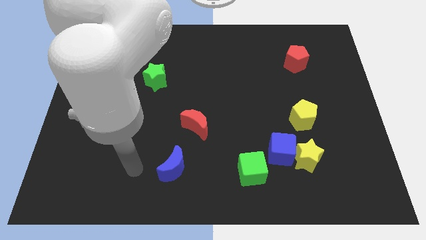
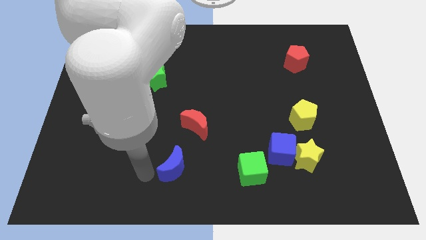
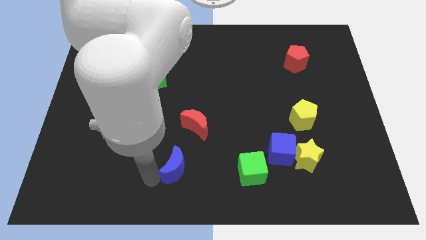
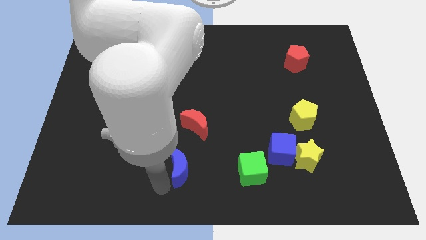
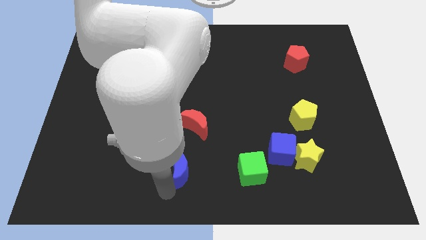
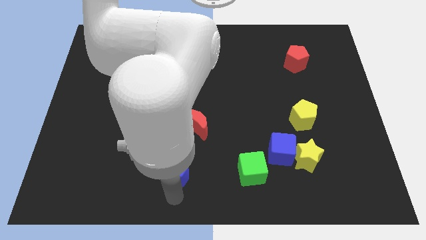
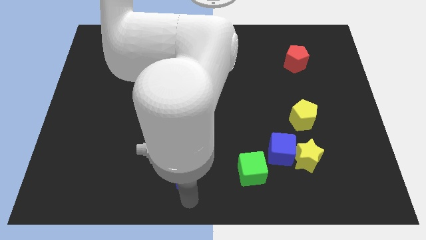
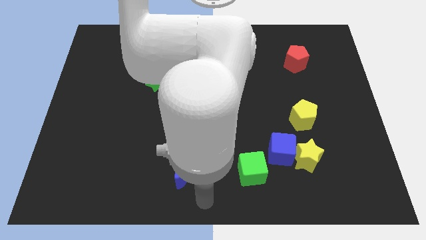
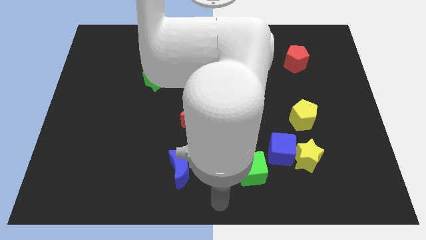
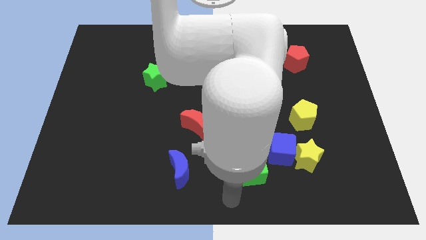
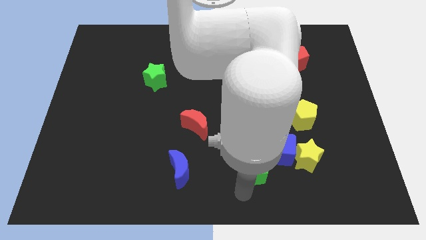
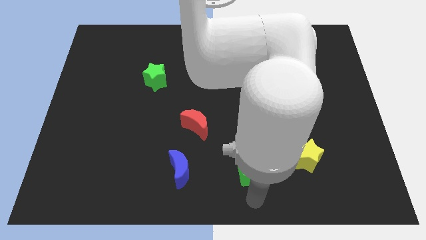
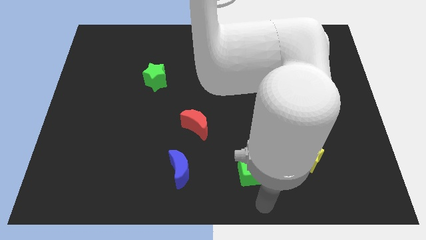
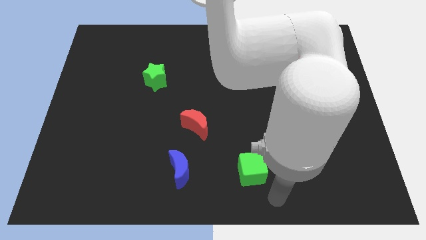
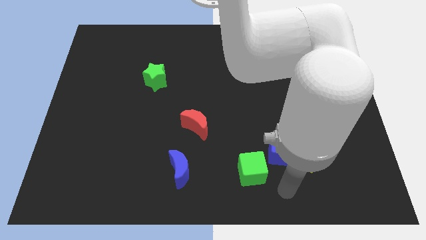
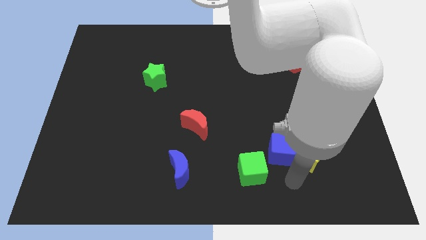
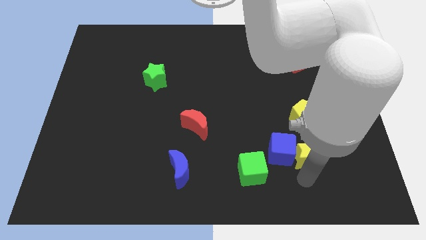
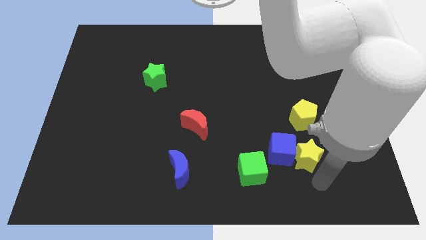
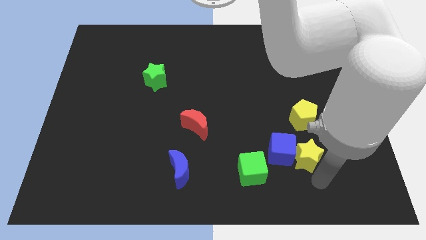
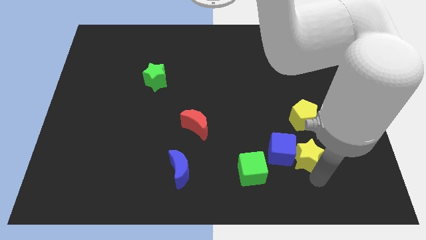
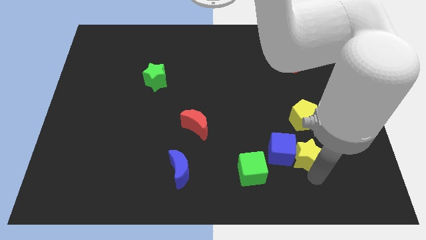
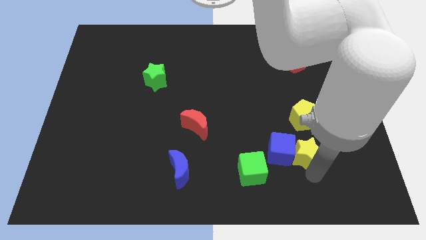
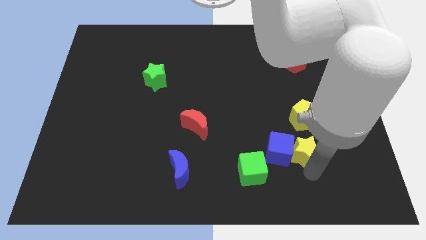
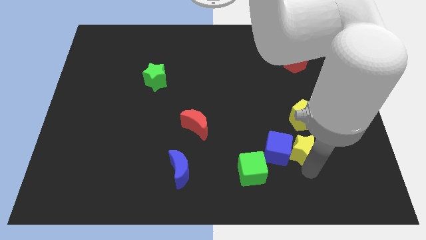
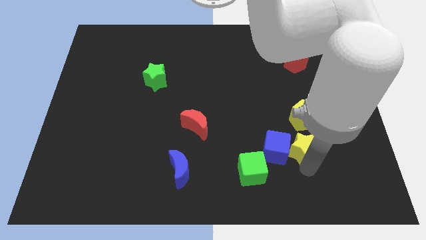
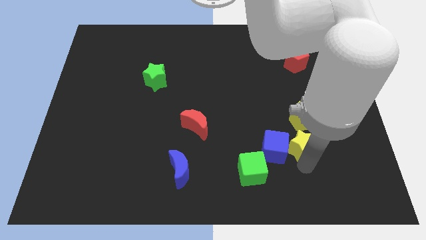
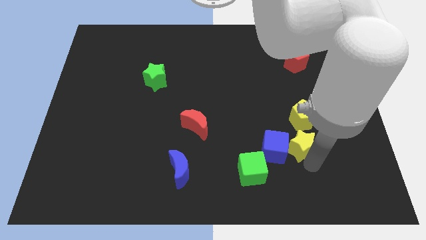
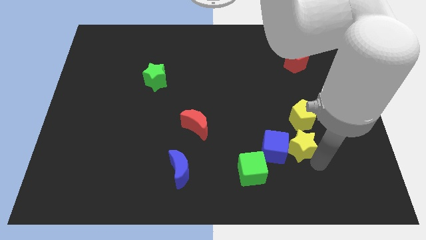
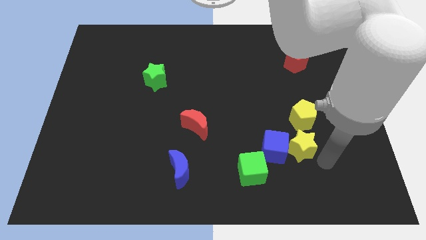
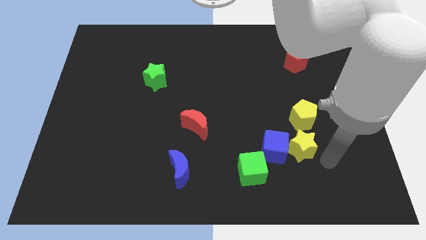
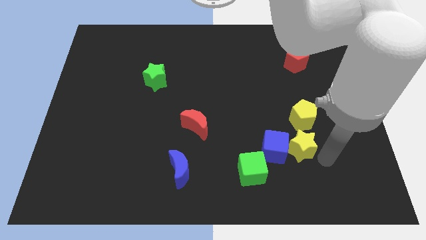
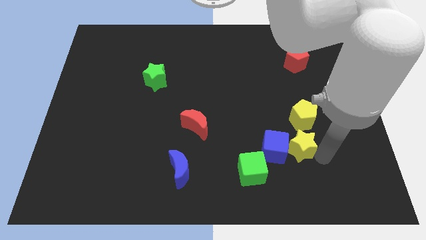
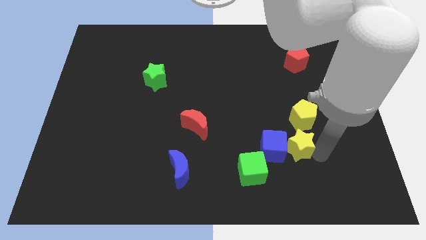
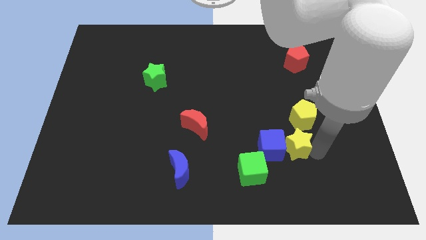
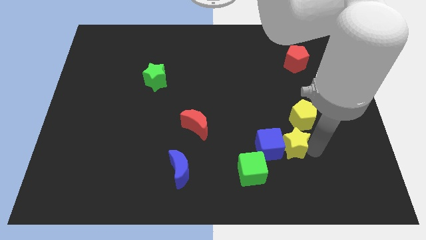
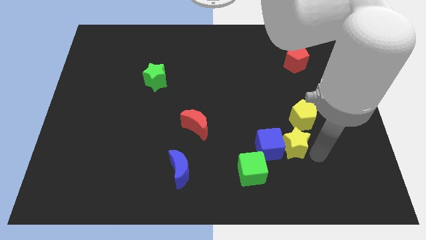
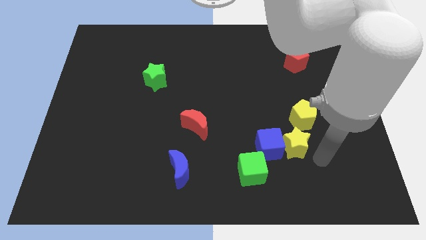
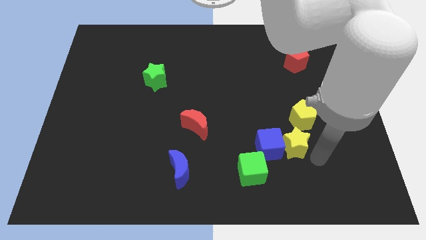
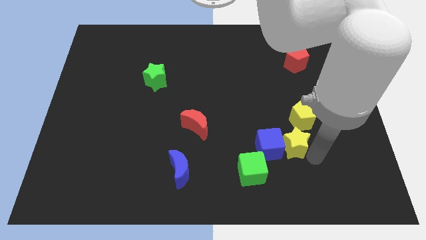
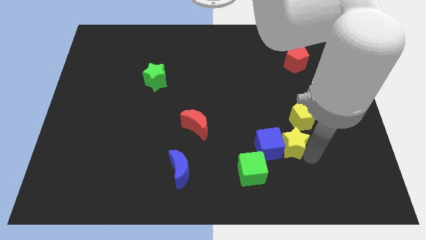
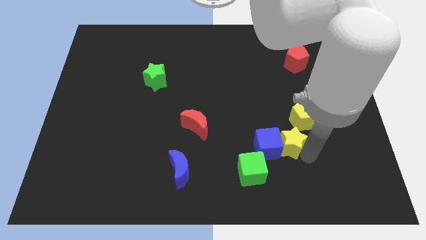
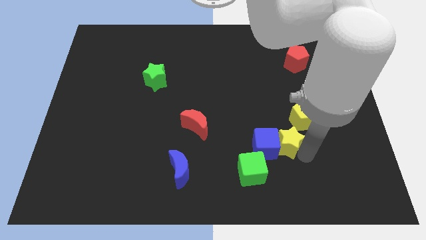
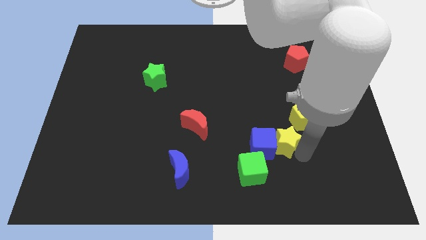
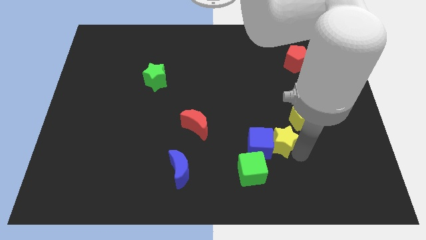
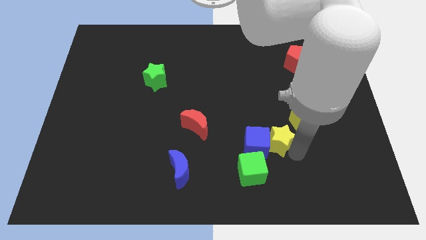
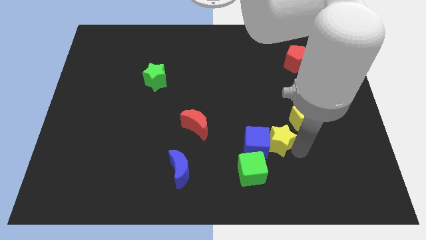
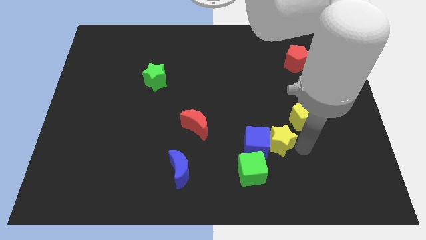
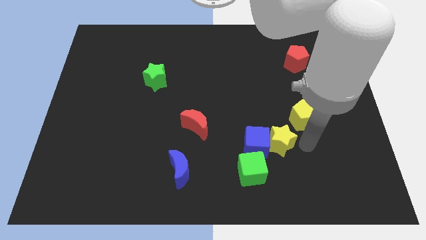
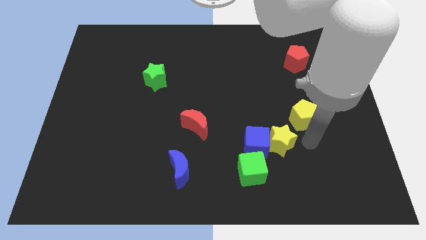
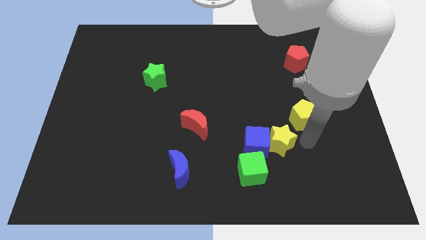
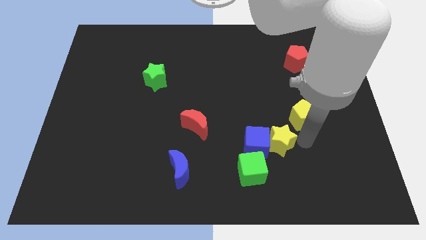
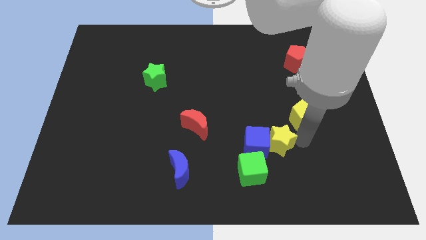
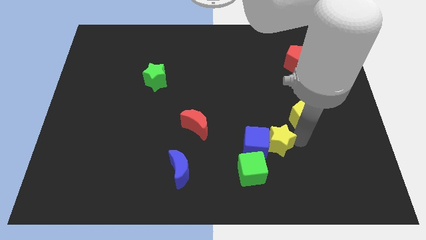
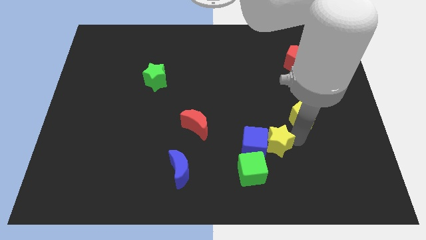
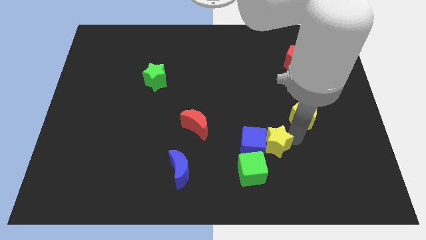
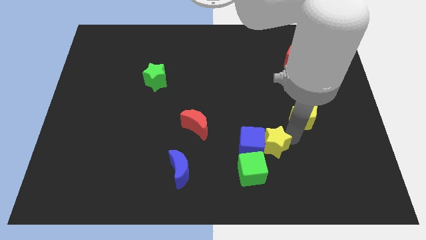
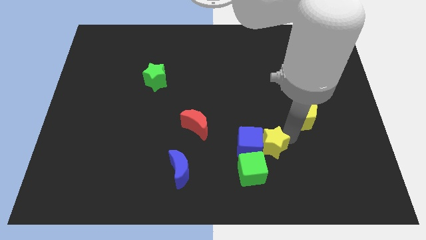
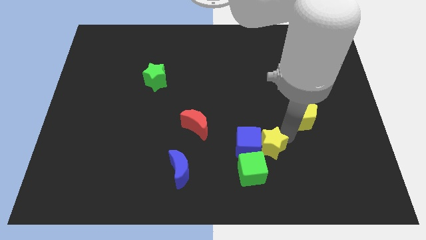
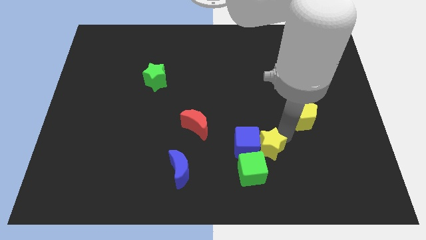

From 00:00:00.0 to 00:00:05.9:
push the yellow star left a little

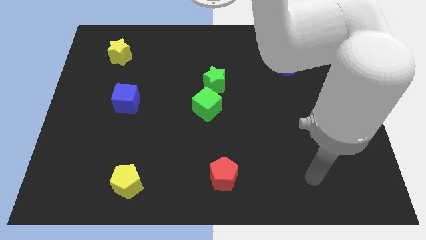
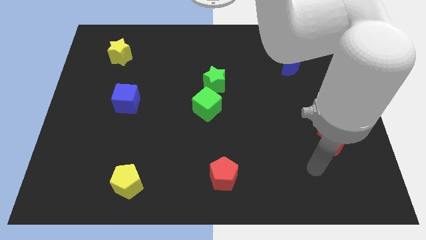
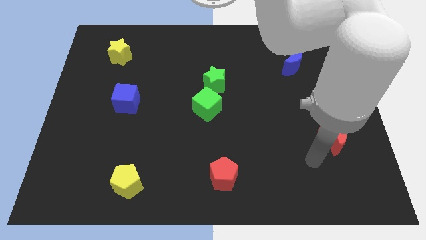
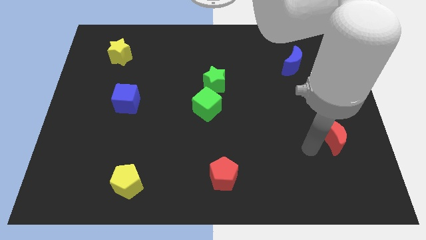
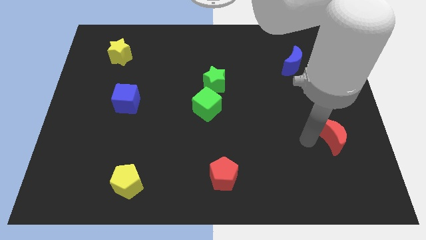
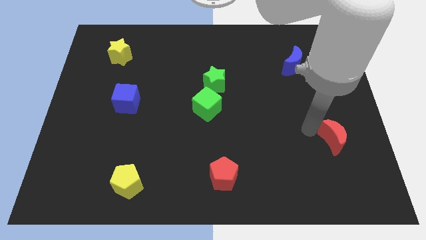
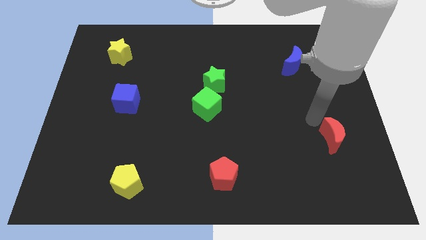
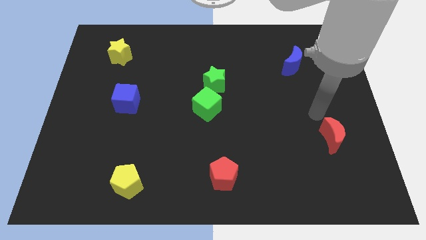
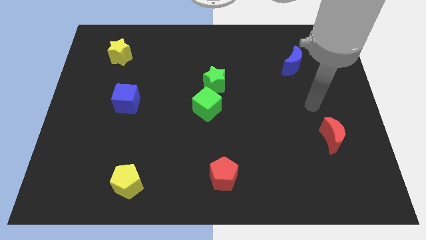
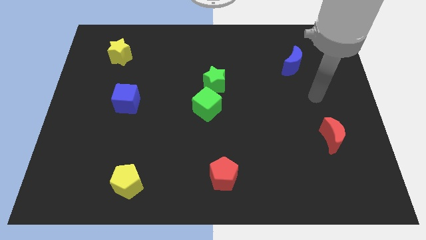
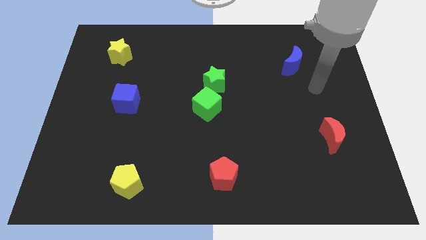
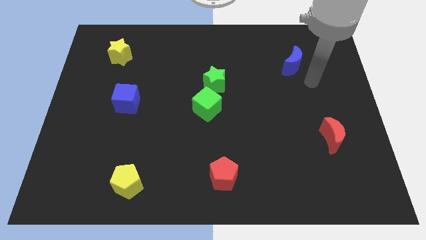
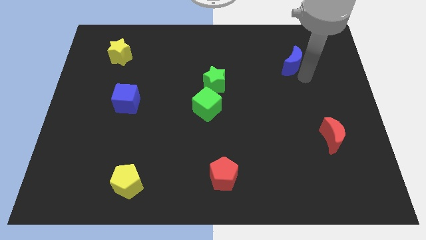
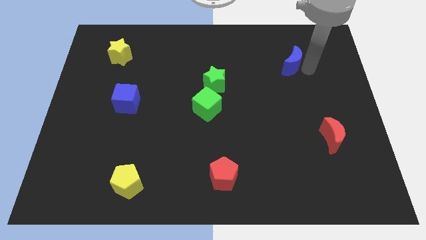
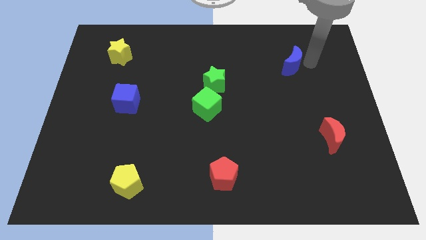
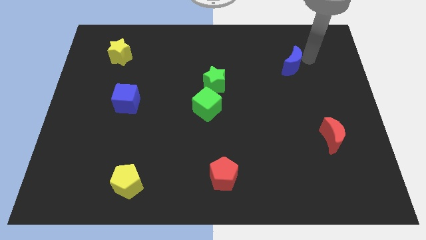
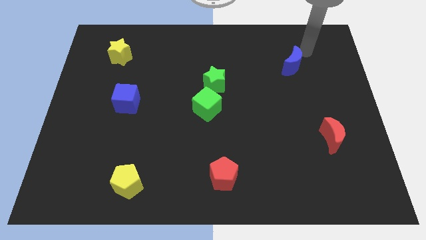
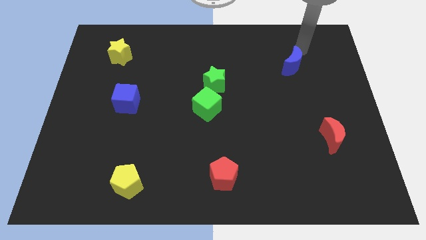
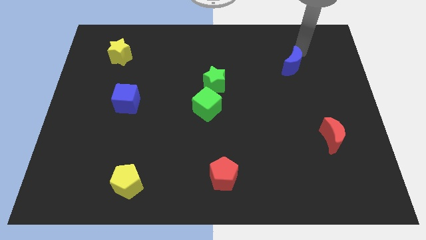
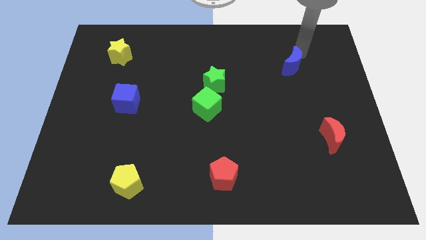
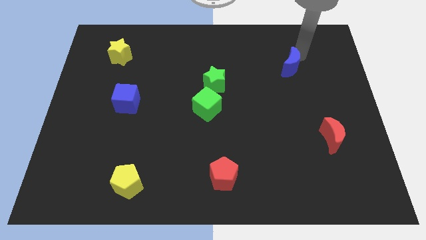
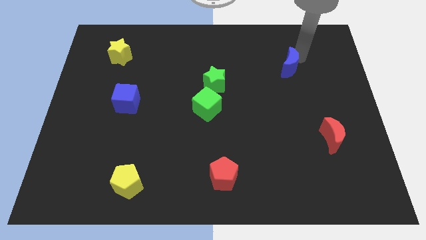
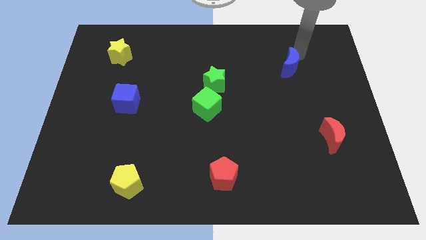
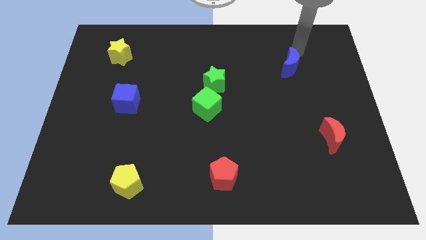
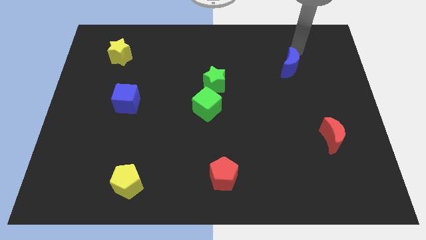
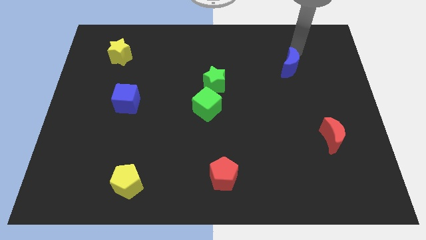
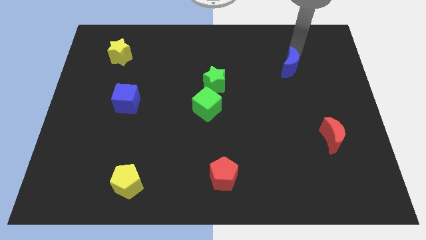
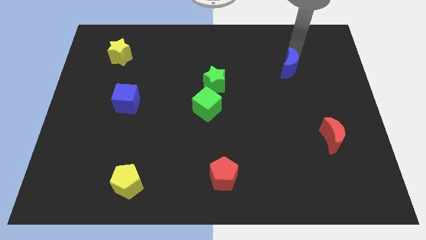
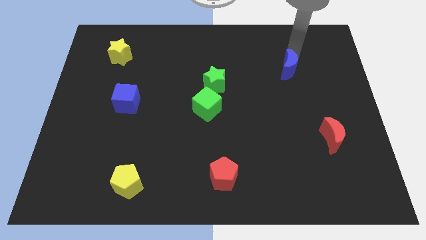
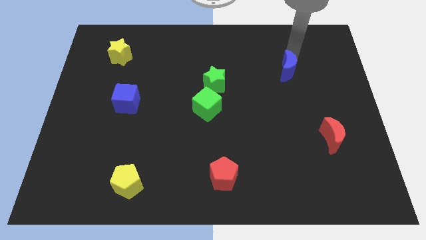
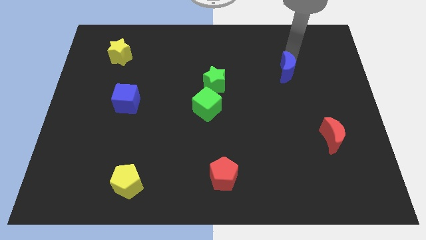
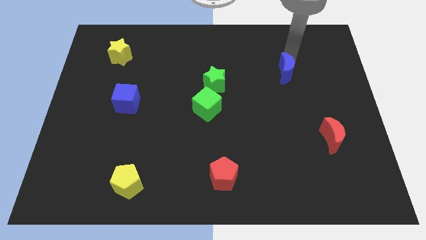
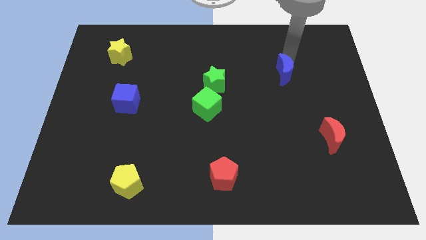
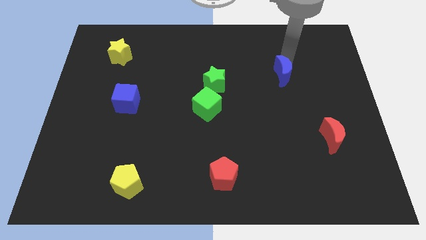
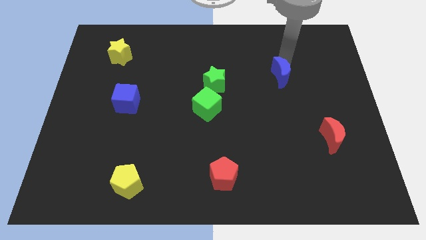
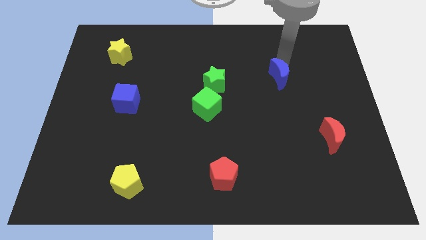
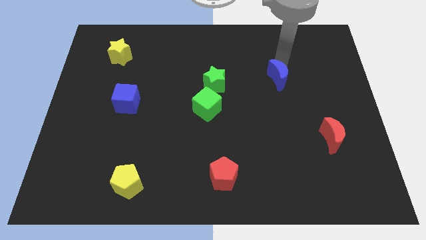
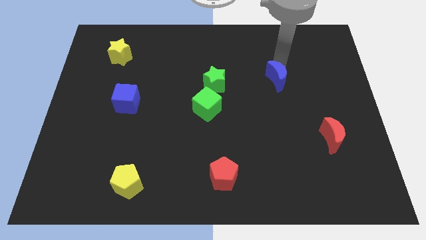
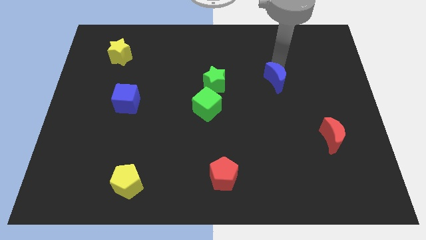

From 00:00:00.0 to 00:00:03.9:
slightly slide the blue moon diagonally downwards and left
